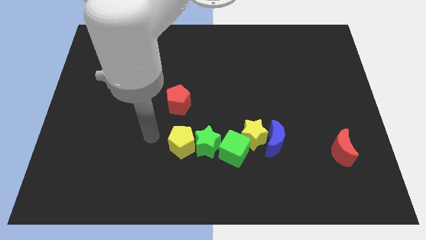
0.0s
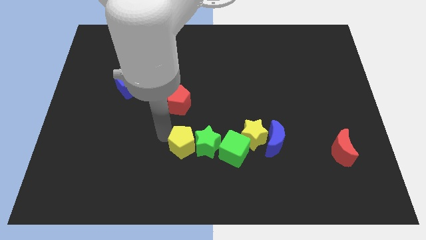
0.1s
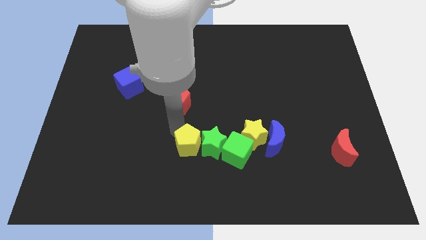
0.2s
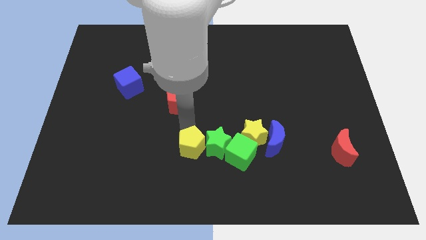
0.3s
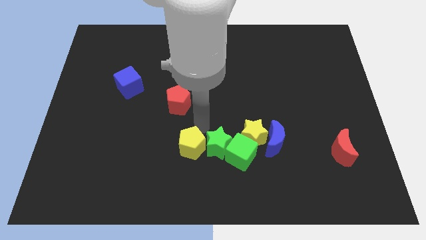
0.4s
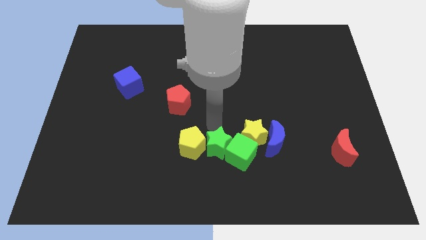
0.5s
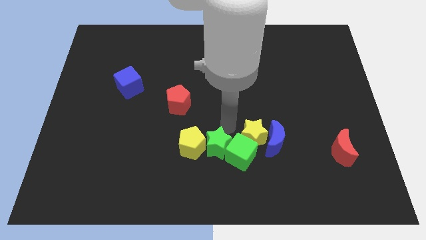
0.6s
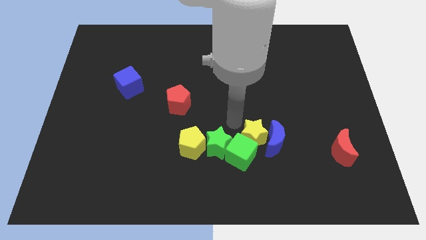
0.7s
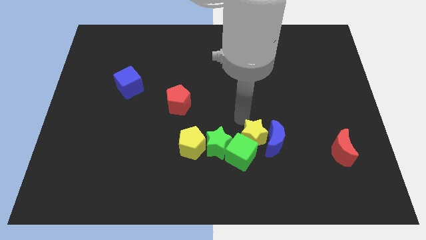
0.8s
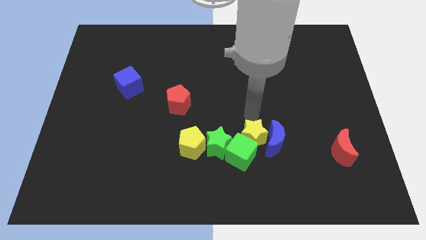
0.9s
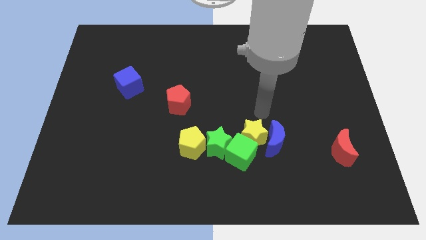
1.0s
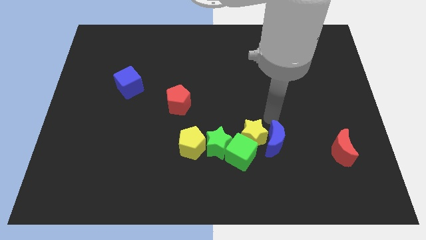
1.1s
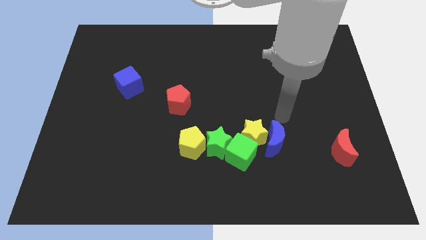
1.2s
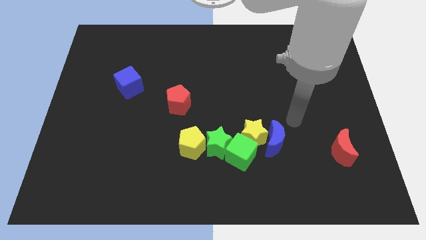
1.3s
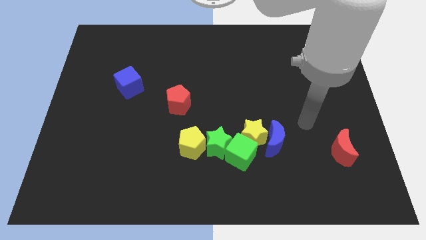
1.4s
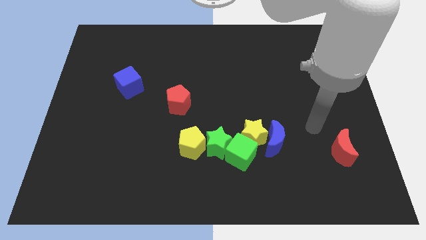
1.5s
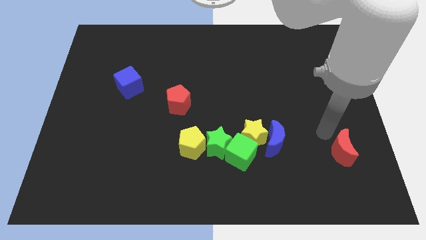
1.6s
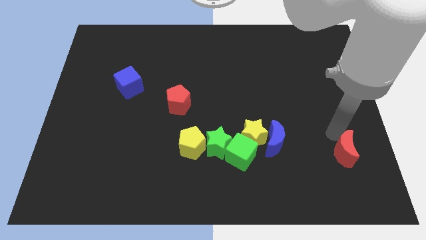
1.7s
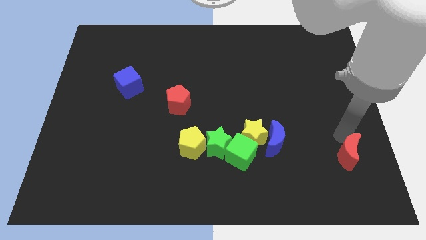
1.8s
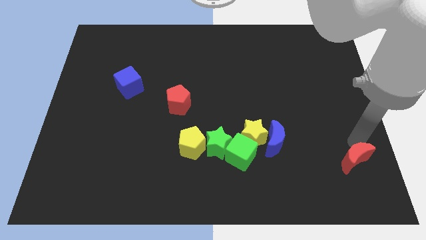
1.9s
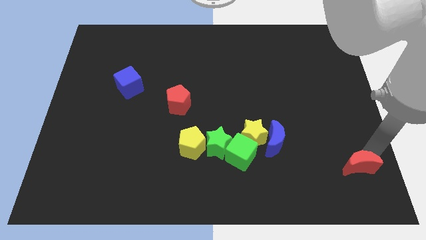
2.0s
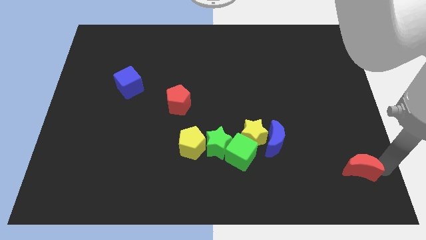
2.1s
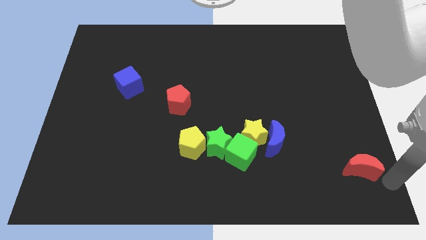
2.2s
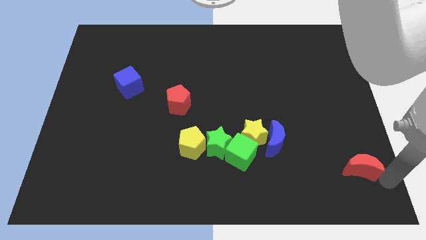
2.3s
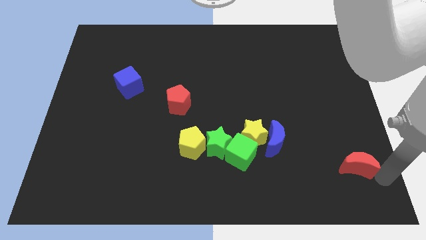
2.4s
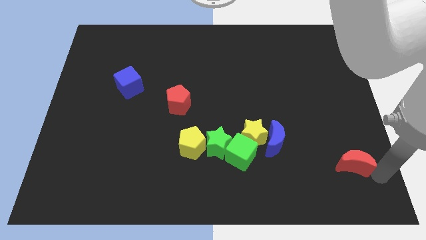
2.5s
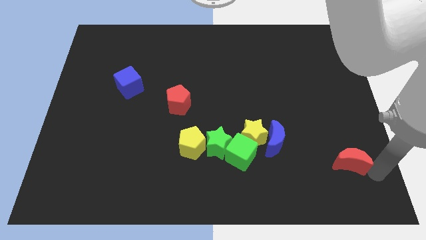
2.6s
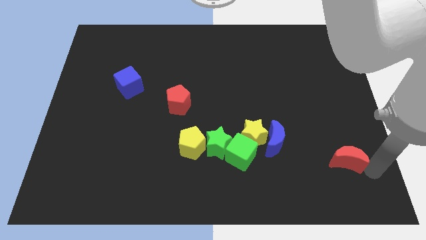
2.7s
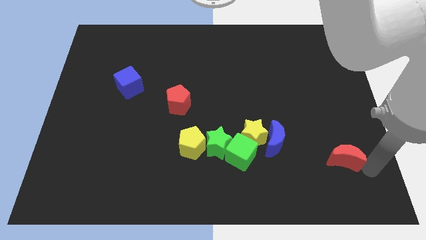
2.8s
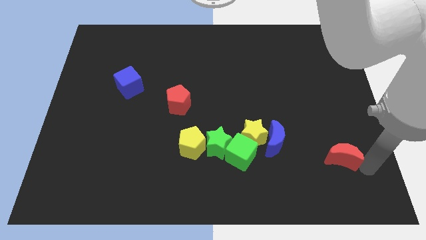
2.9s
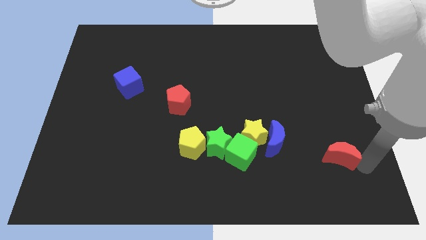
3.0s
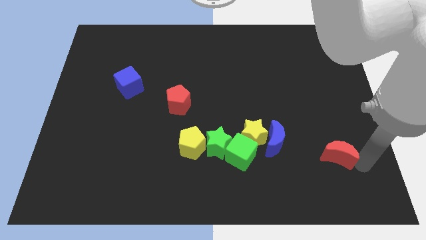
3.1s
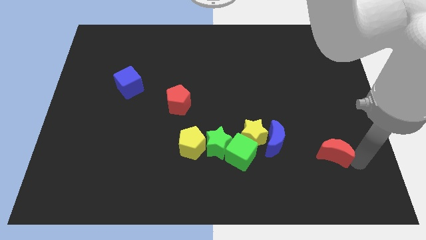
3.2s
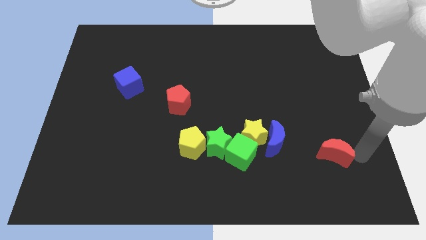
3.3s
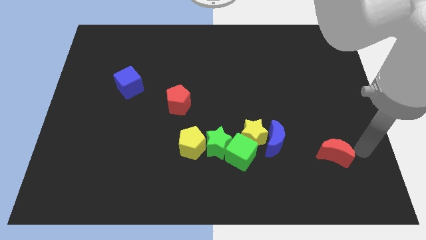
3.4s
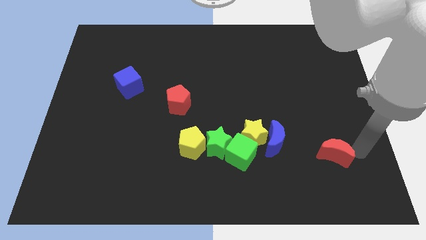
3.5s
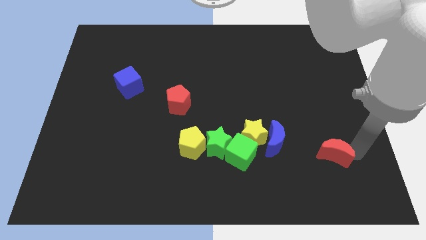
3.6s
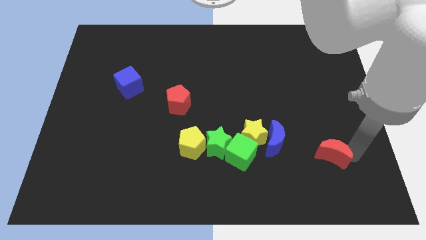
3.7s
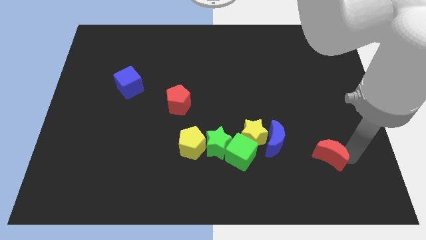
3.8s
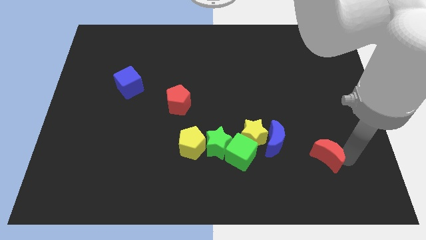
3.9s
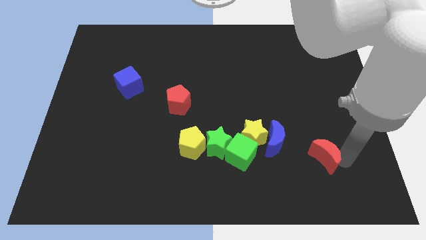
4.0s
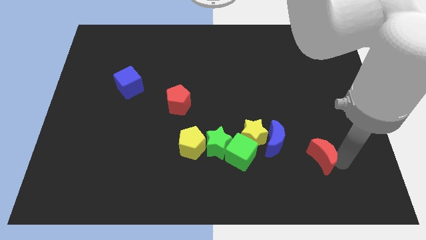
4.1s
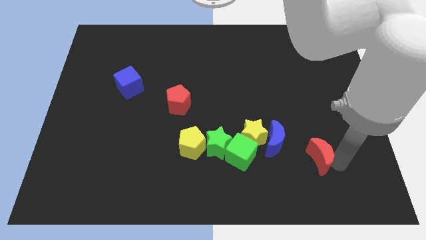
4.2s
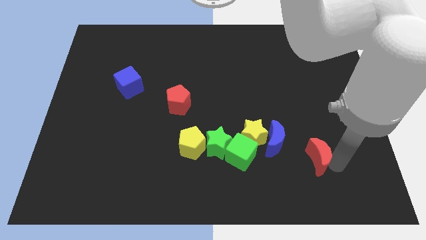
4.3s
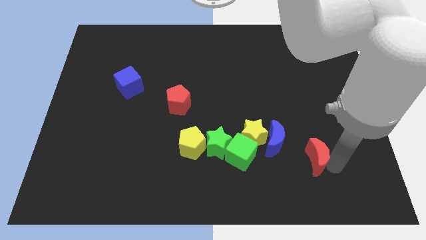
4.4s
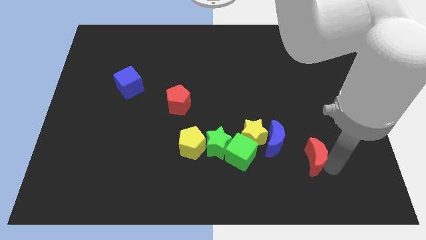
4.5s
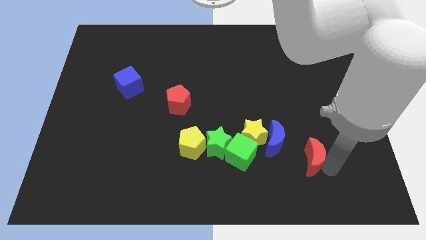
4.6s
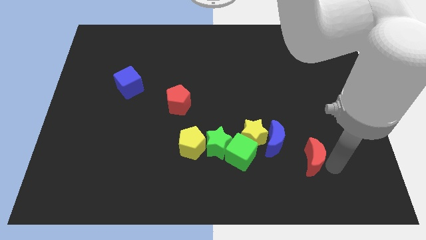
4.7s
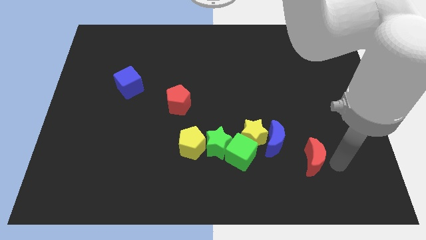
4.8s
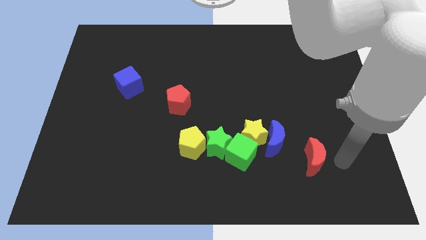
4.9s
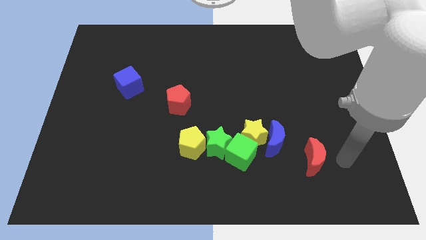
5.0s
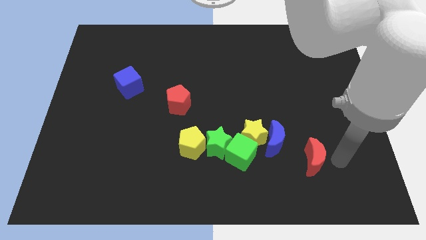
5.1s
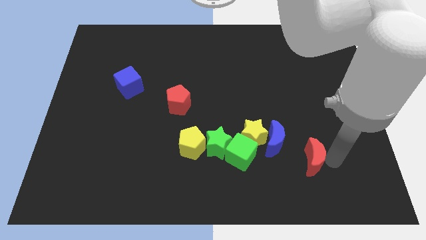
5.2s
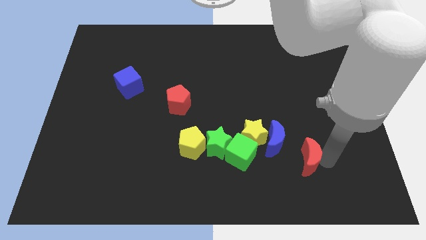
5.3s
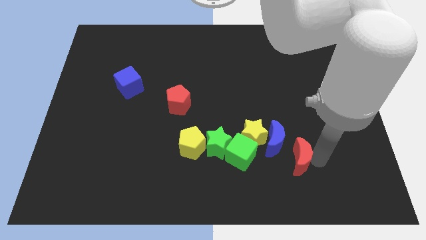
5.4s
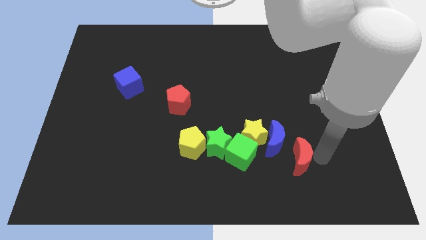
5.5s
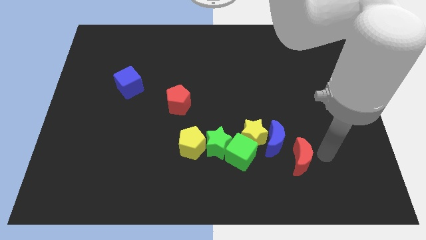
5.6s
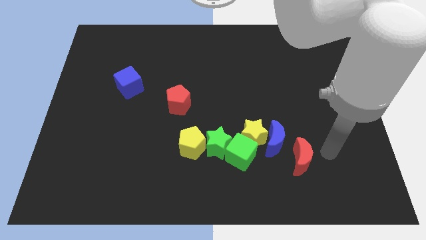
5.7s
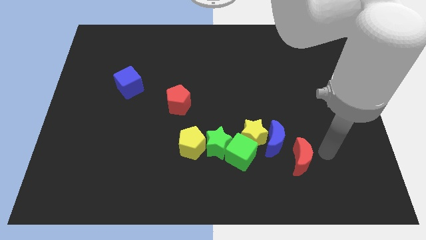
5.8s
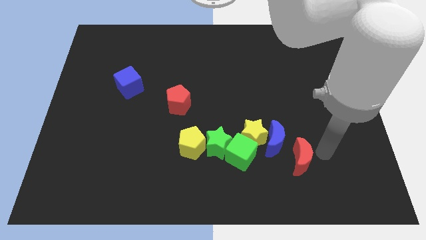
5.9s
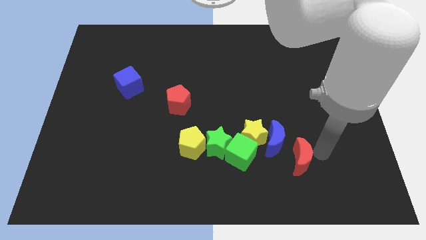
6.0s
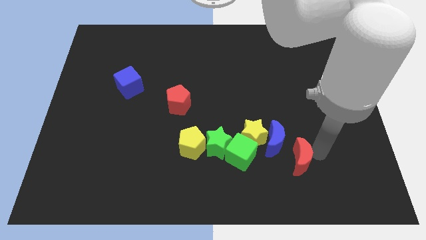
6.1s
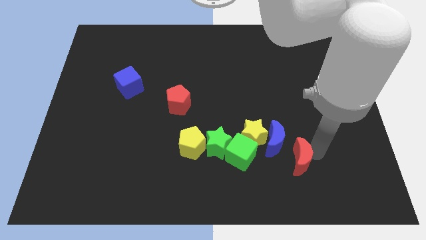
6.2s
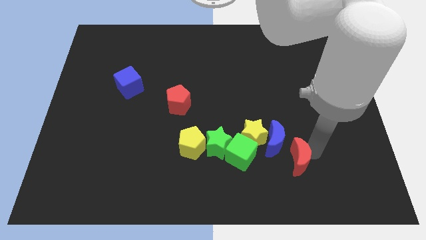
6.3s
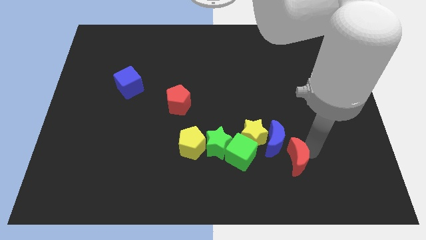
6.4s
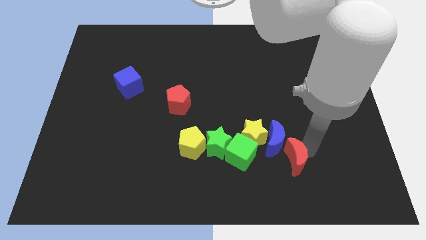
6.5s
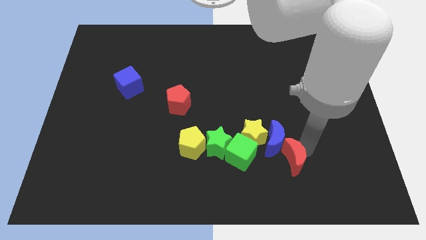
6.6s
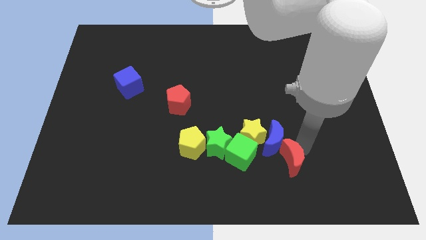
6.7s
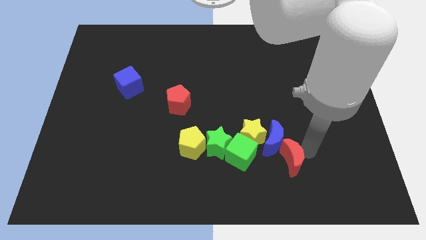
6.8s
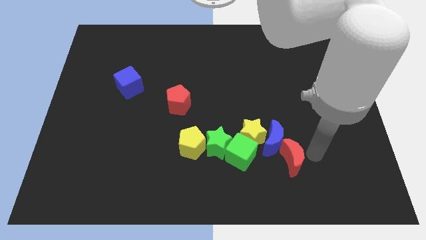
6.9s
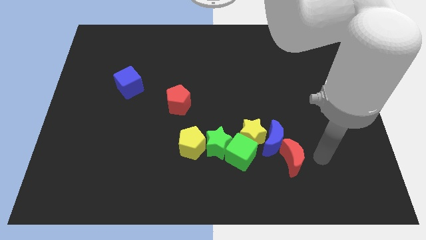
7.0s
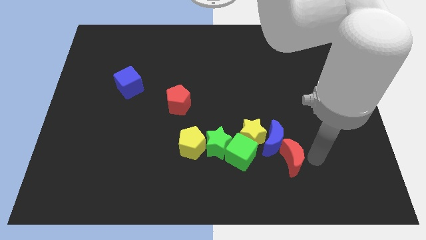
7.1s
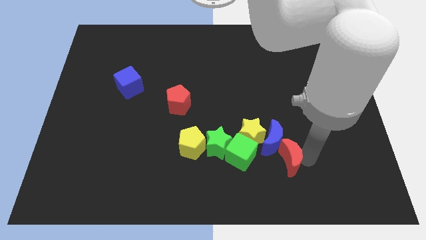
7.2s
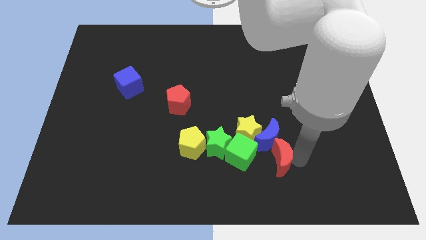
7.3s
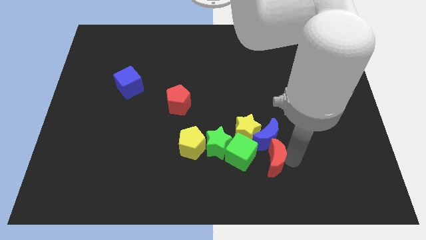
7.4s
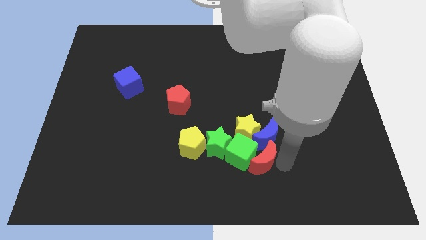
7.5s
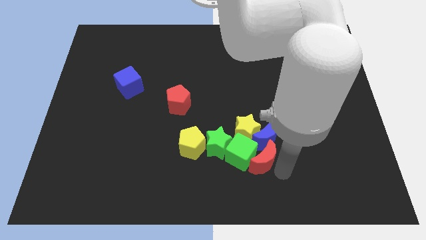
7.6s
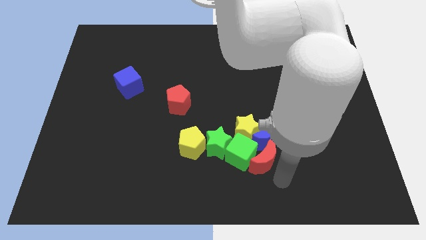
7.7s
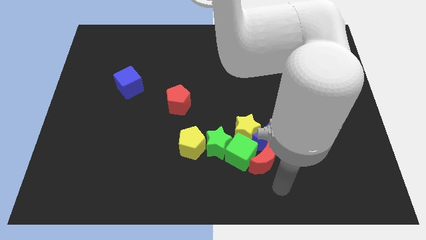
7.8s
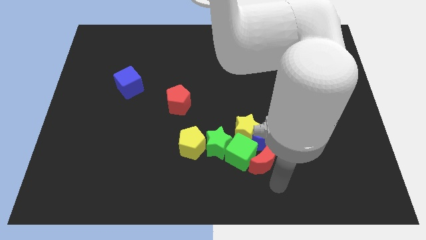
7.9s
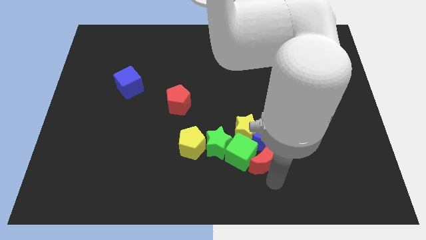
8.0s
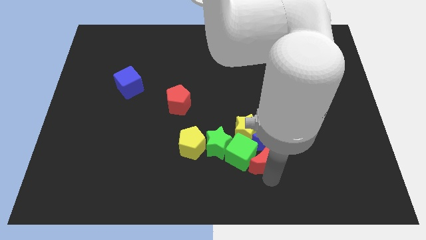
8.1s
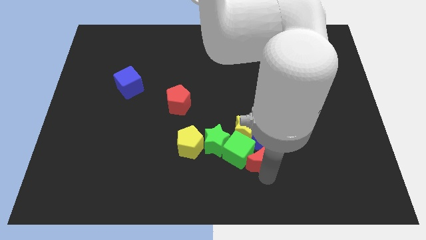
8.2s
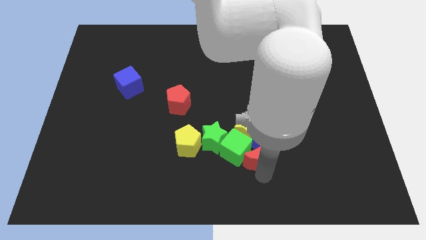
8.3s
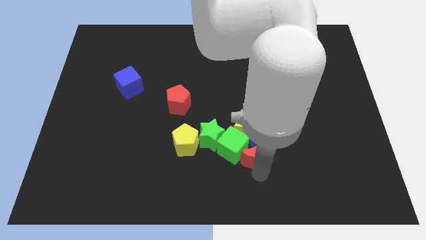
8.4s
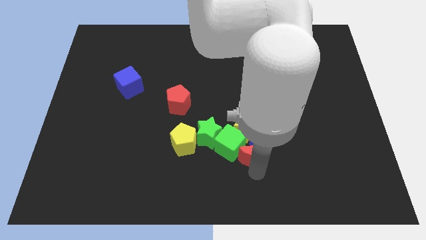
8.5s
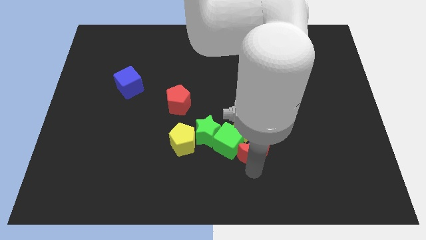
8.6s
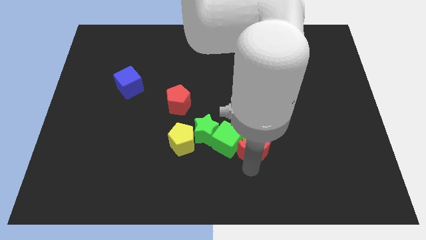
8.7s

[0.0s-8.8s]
slide the red moon next to the yellow star
